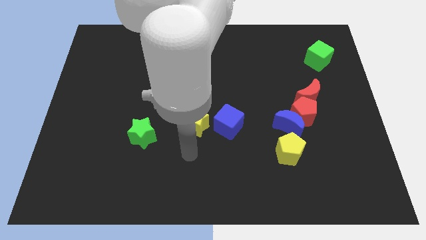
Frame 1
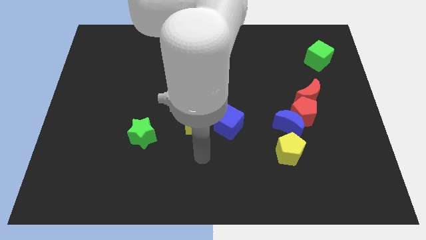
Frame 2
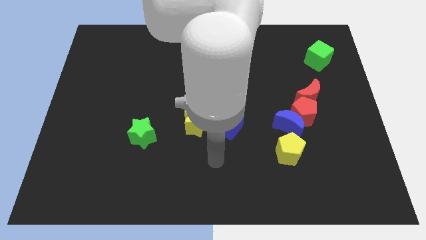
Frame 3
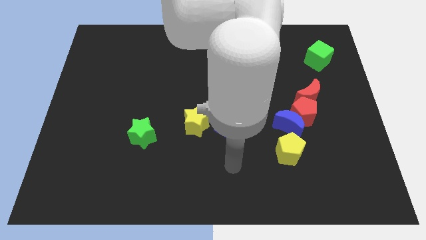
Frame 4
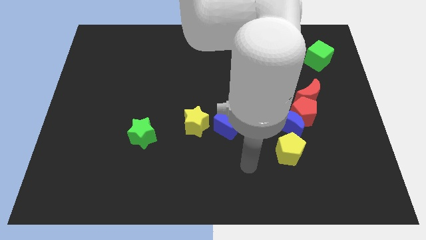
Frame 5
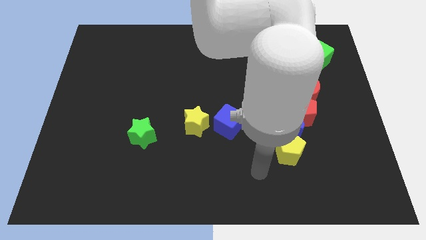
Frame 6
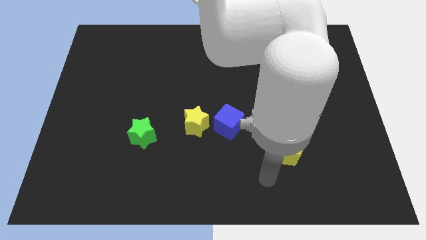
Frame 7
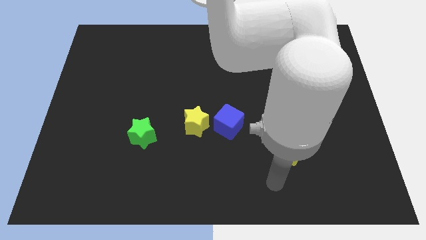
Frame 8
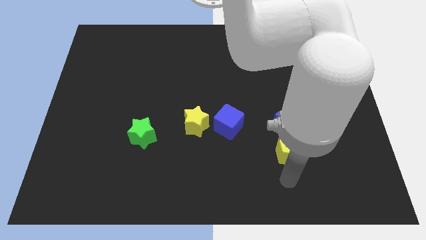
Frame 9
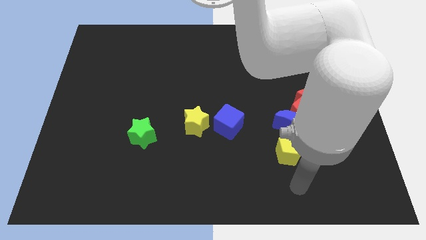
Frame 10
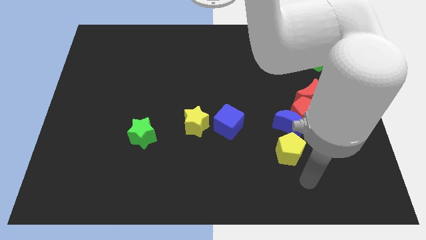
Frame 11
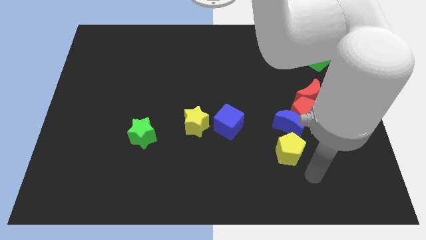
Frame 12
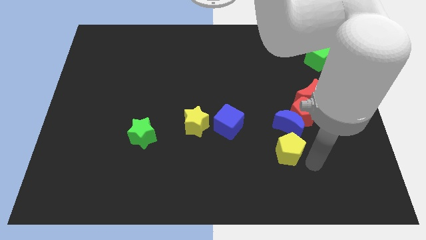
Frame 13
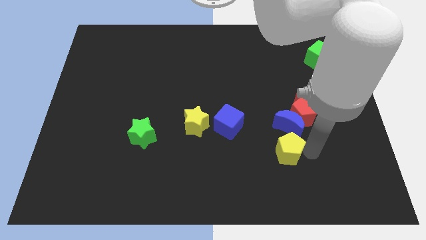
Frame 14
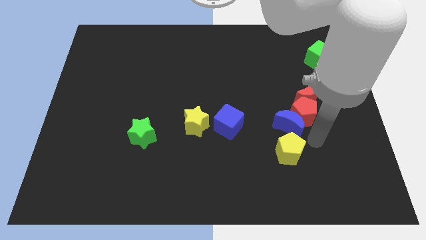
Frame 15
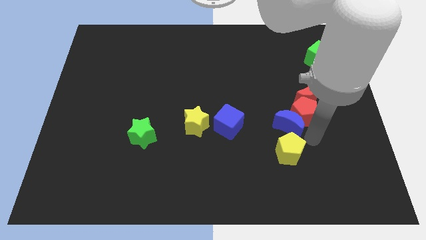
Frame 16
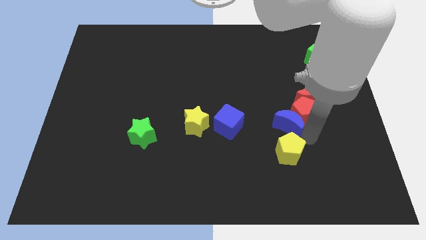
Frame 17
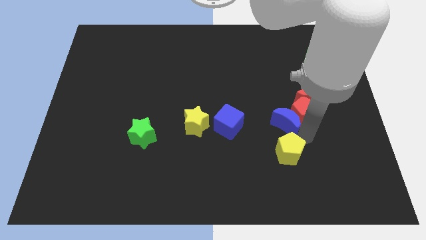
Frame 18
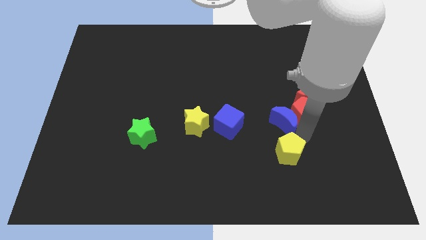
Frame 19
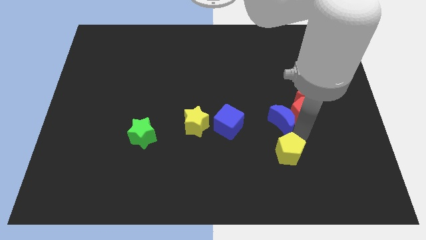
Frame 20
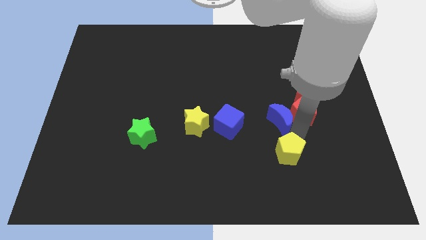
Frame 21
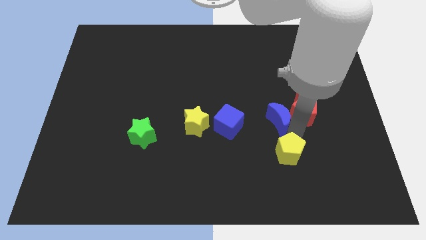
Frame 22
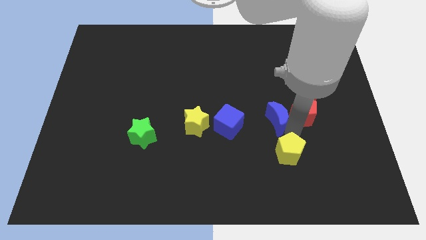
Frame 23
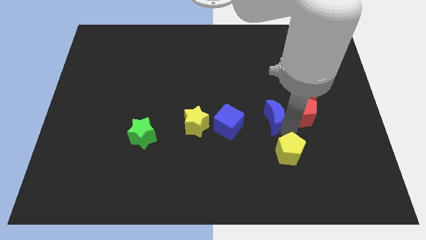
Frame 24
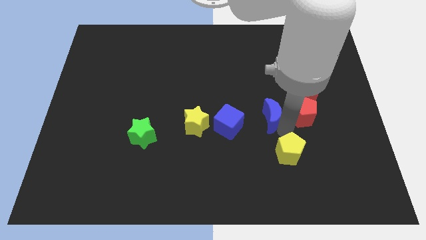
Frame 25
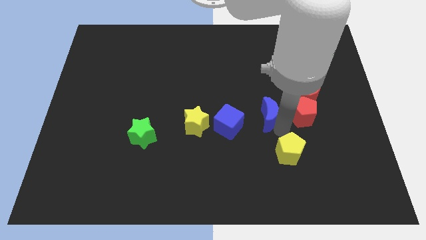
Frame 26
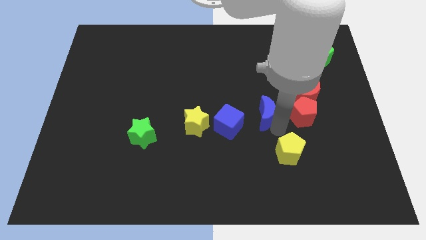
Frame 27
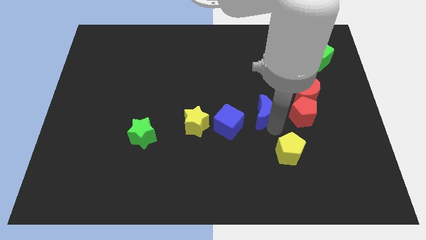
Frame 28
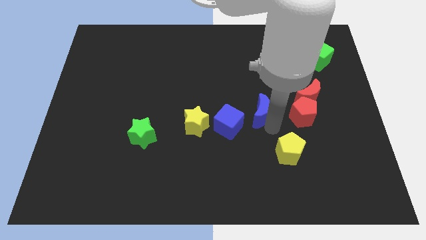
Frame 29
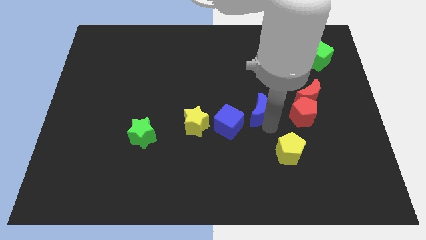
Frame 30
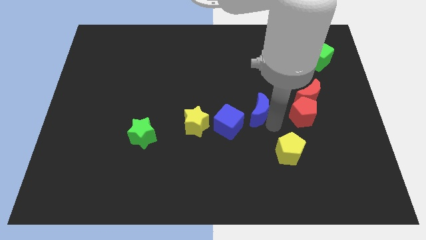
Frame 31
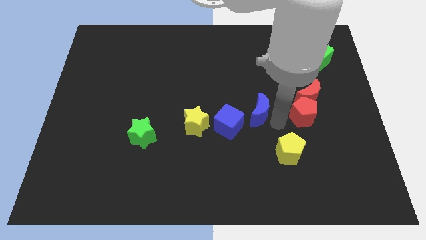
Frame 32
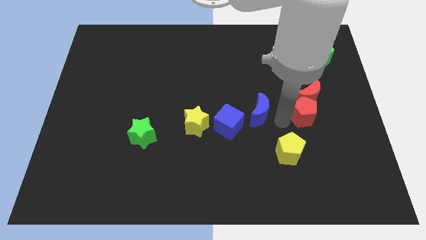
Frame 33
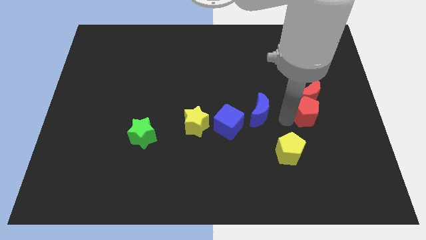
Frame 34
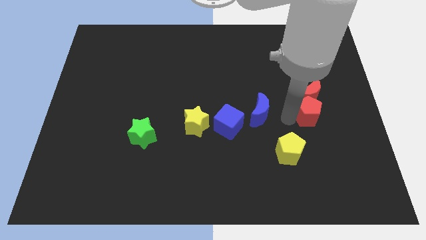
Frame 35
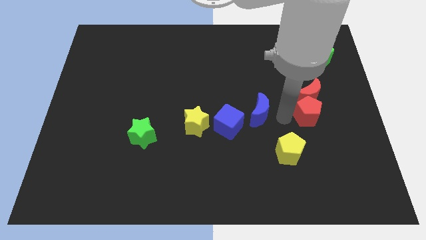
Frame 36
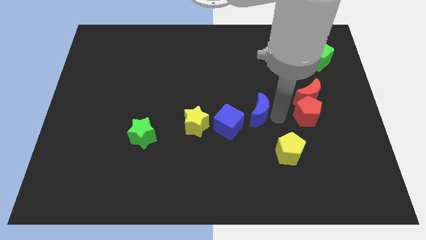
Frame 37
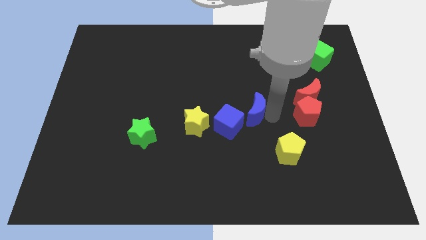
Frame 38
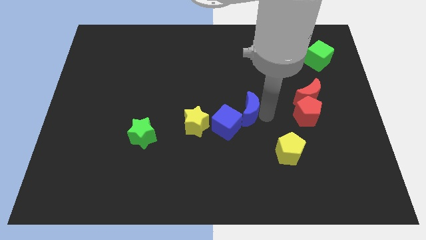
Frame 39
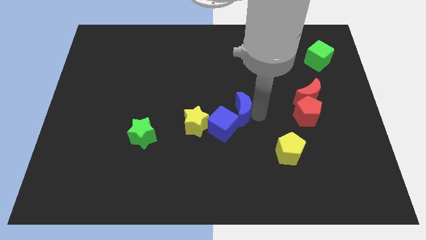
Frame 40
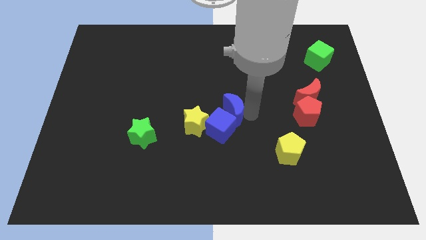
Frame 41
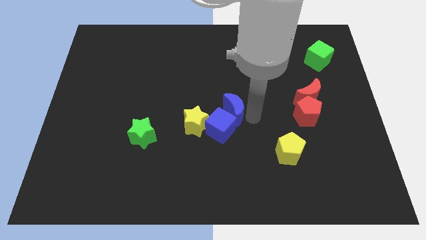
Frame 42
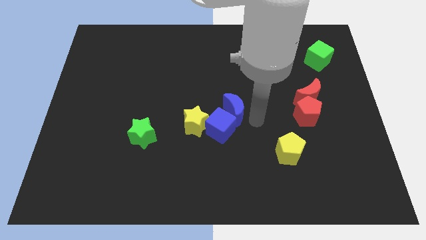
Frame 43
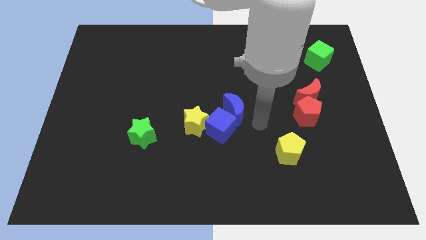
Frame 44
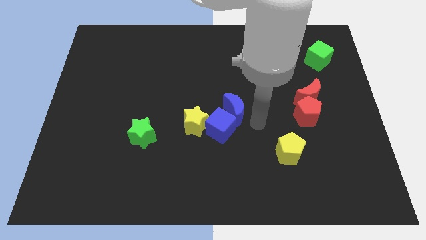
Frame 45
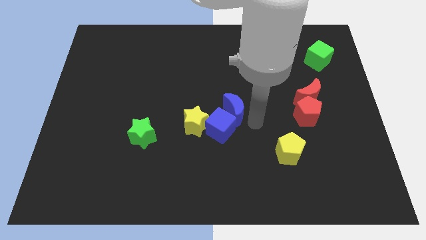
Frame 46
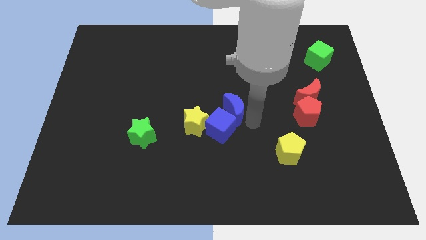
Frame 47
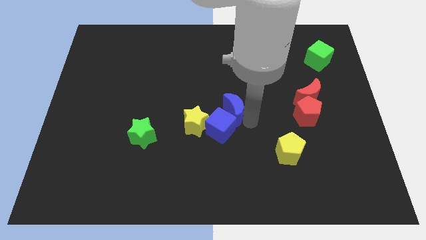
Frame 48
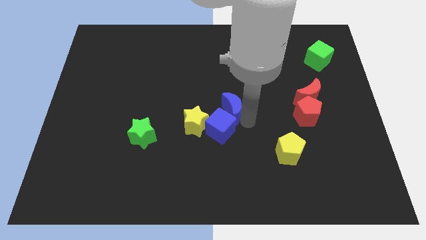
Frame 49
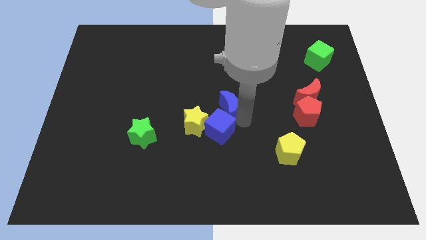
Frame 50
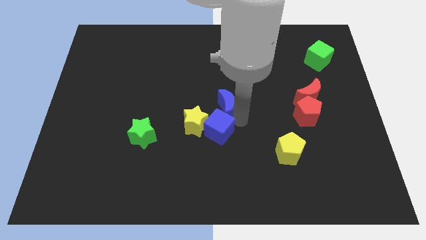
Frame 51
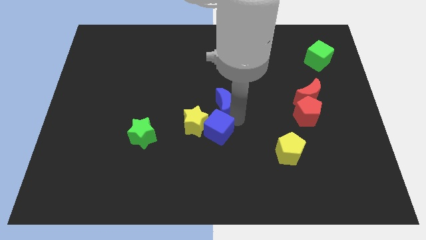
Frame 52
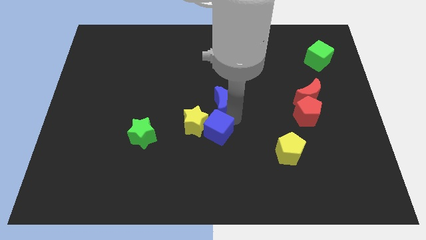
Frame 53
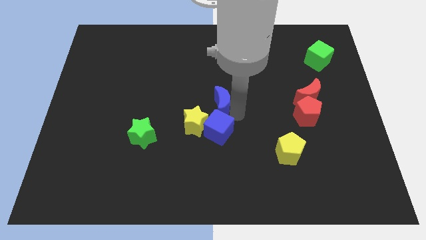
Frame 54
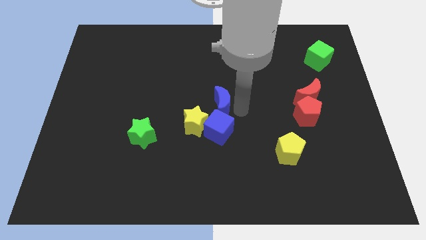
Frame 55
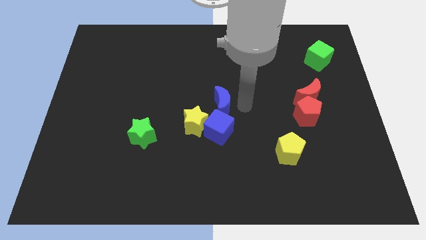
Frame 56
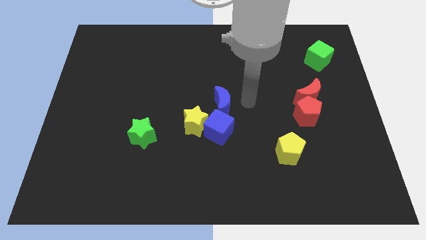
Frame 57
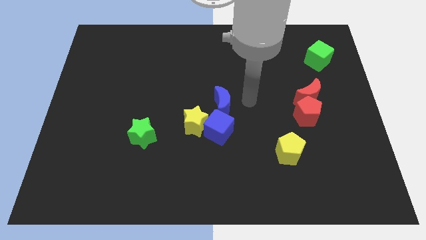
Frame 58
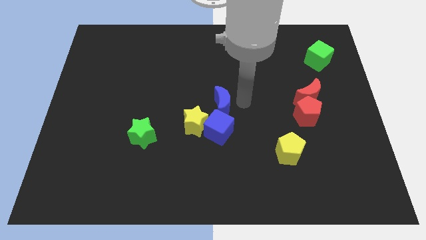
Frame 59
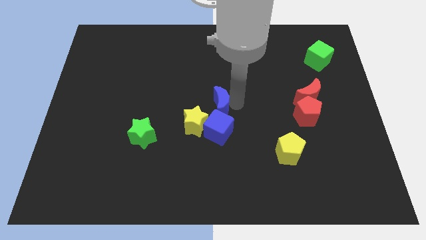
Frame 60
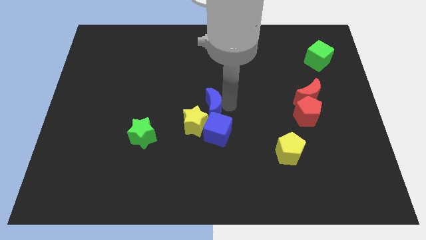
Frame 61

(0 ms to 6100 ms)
slide the blue moon diagonally up and to the left of the blue cube

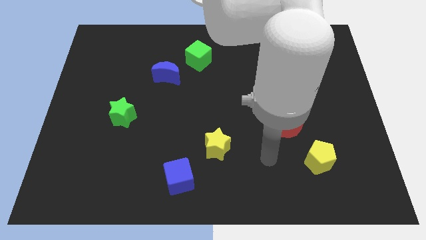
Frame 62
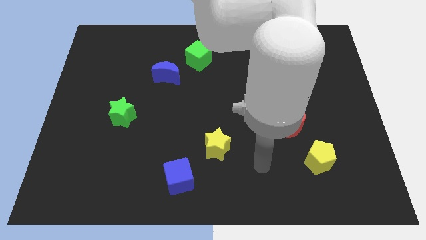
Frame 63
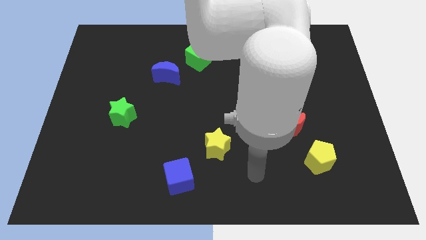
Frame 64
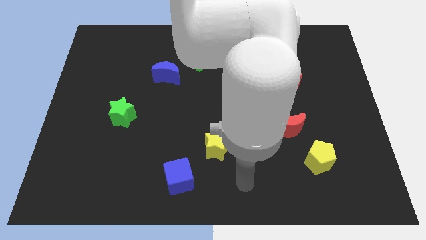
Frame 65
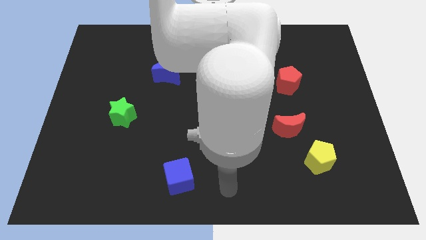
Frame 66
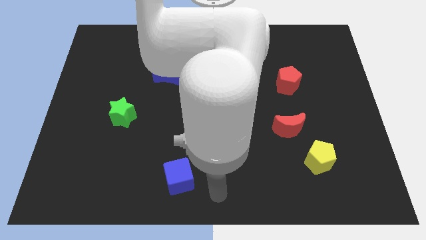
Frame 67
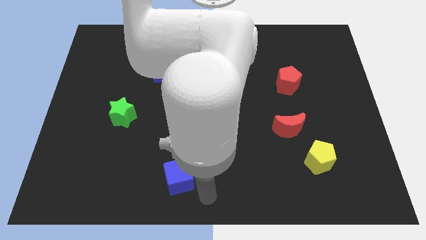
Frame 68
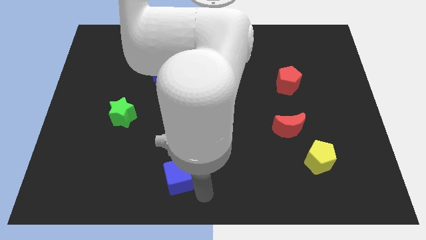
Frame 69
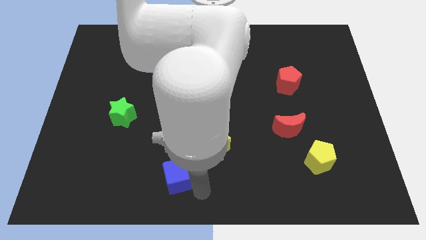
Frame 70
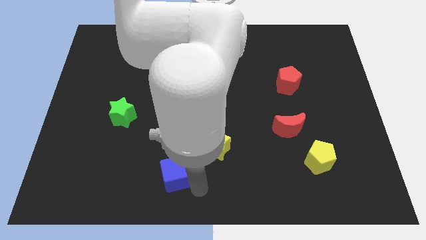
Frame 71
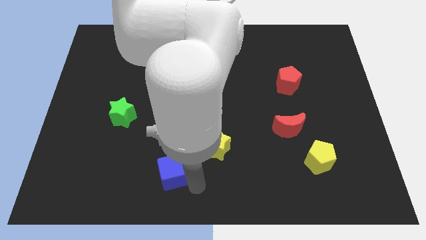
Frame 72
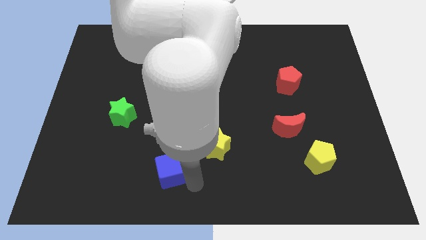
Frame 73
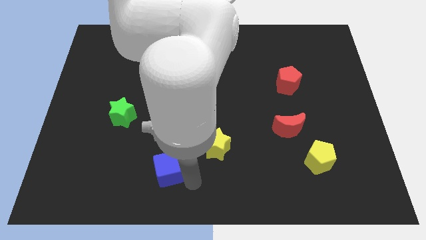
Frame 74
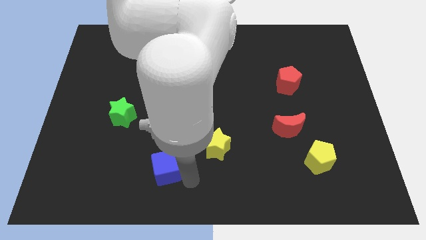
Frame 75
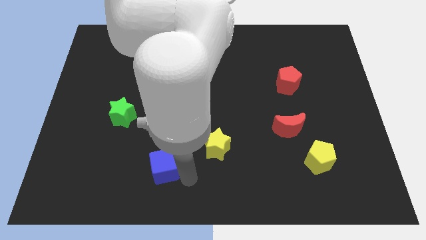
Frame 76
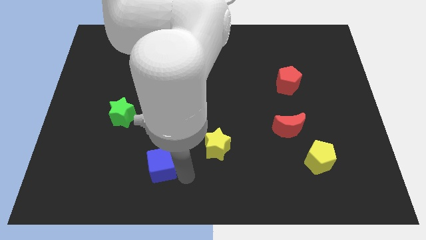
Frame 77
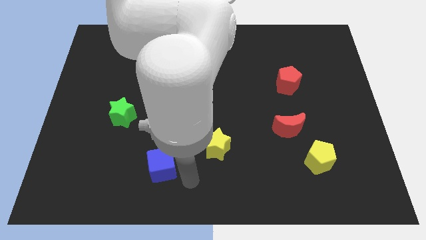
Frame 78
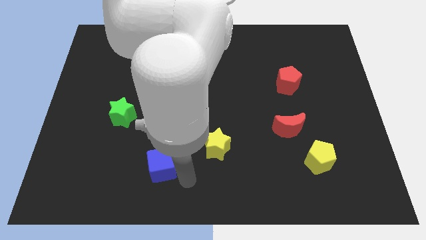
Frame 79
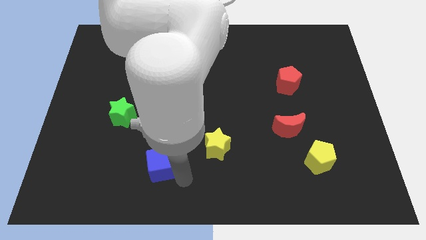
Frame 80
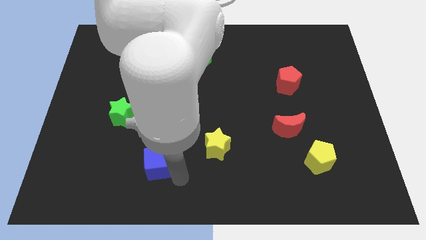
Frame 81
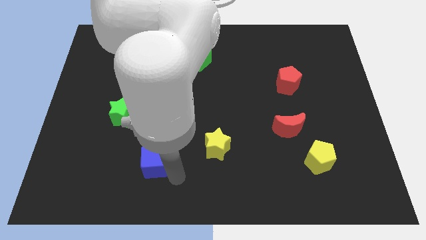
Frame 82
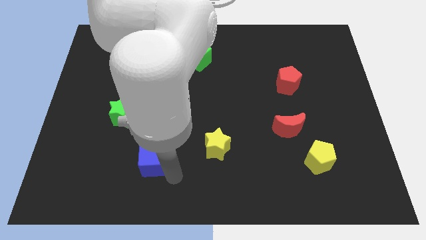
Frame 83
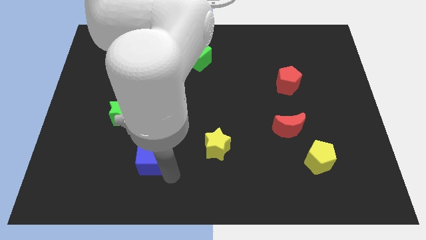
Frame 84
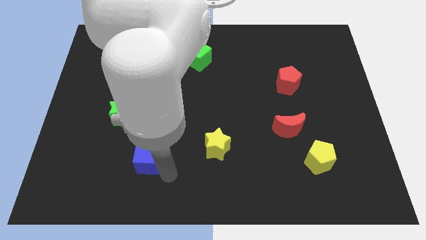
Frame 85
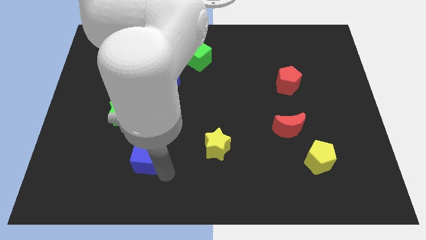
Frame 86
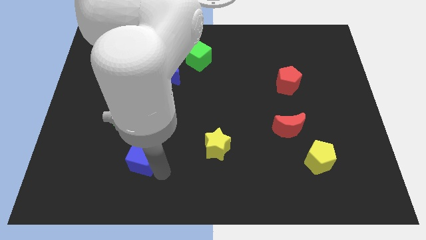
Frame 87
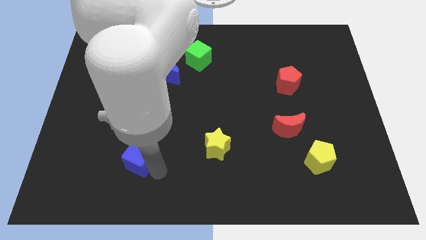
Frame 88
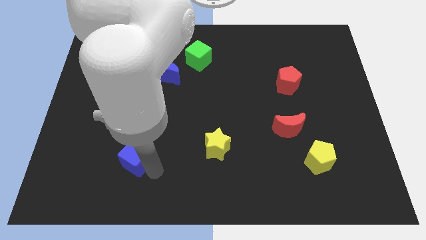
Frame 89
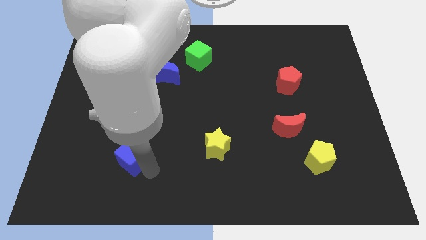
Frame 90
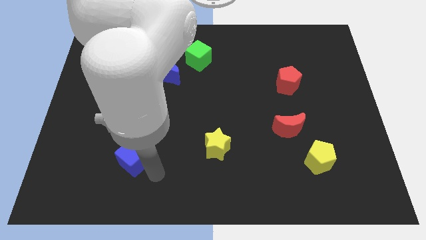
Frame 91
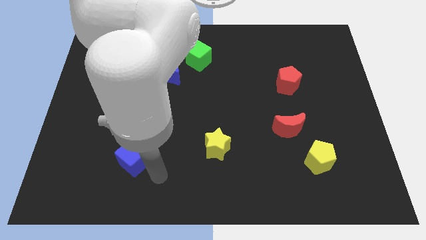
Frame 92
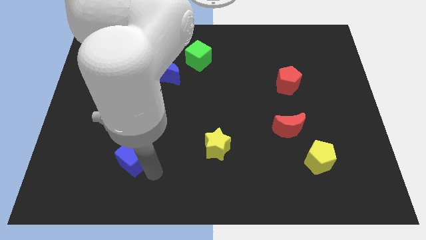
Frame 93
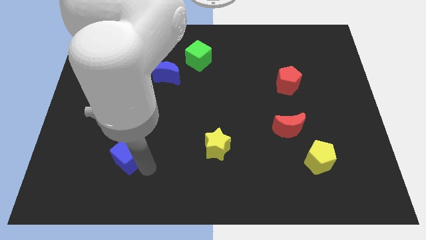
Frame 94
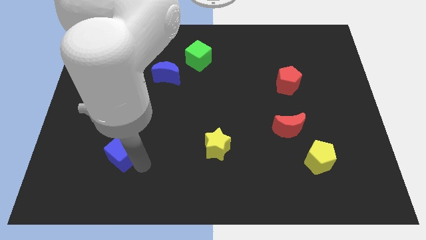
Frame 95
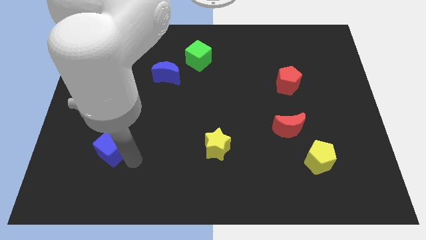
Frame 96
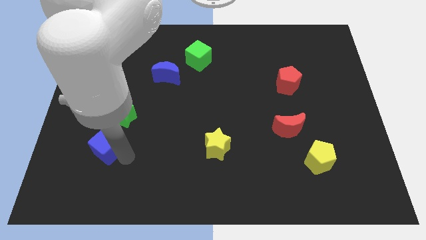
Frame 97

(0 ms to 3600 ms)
move the blue cube to the bottom left of the green star
